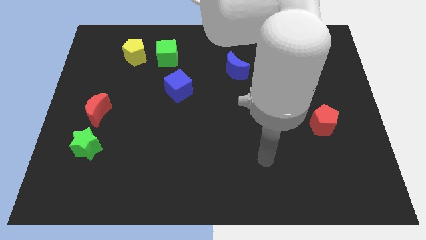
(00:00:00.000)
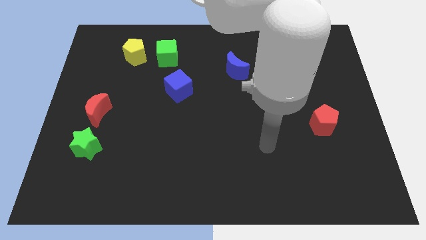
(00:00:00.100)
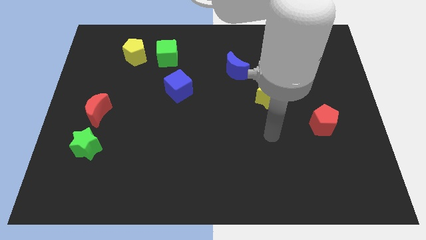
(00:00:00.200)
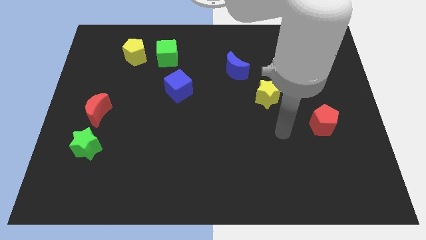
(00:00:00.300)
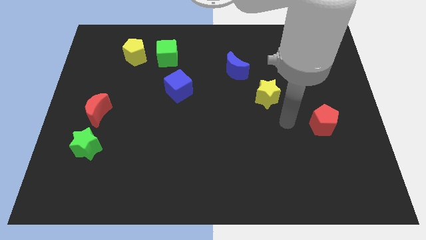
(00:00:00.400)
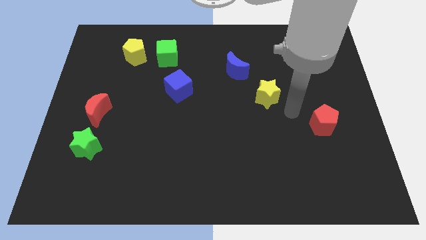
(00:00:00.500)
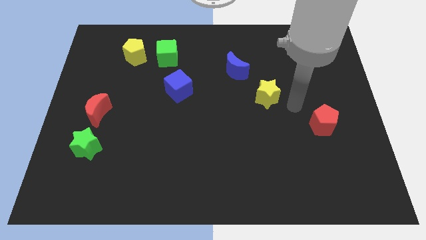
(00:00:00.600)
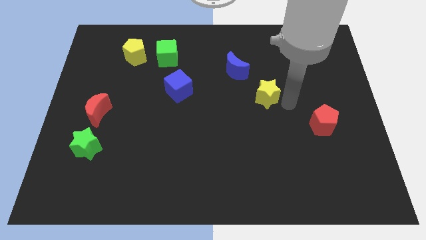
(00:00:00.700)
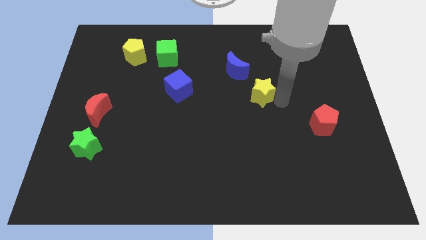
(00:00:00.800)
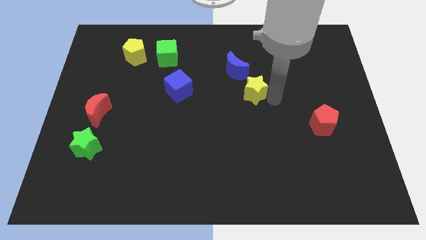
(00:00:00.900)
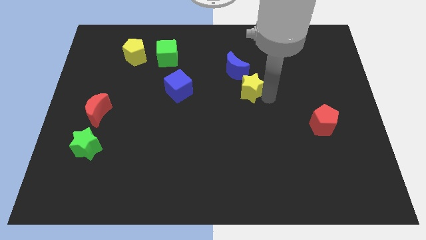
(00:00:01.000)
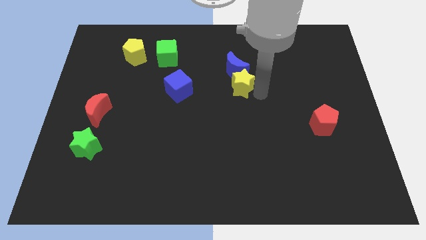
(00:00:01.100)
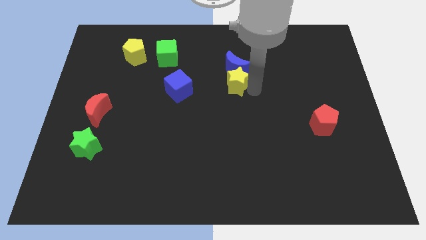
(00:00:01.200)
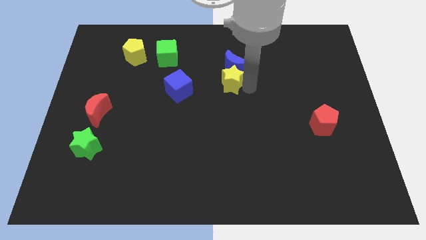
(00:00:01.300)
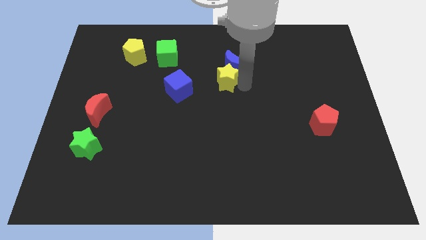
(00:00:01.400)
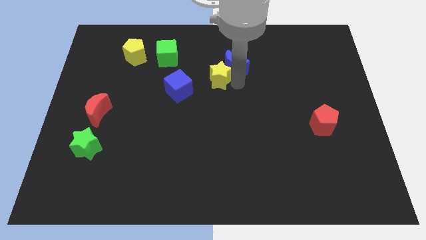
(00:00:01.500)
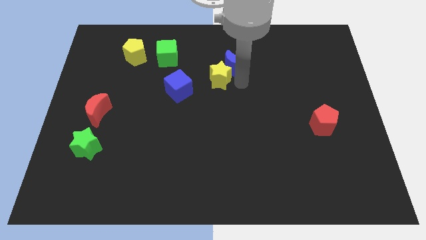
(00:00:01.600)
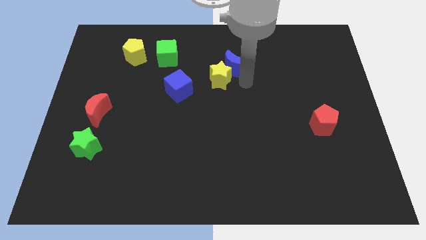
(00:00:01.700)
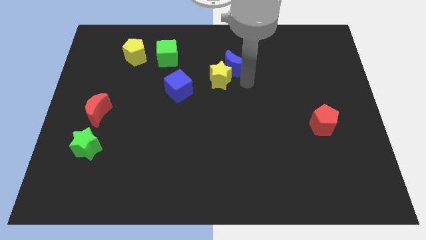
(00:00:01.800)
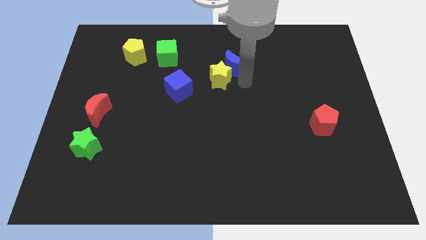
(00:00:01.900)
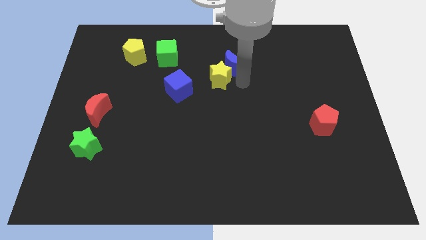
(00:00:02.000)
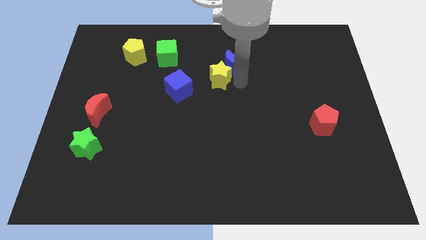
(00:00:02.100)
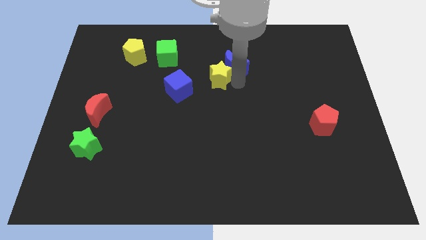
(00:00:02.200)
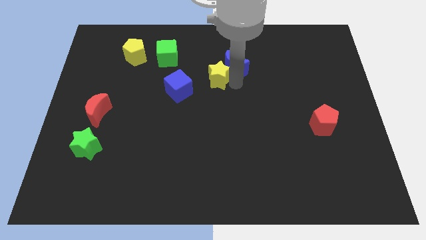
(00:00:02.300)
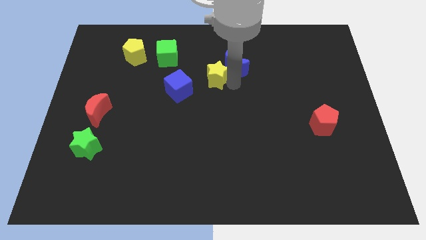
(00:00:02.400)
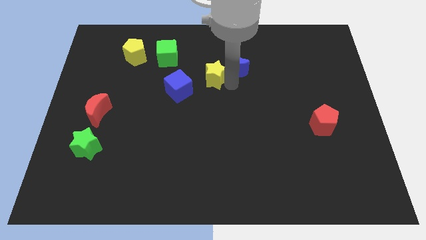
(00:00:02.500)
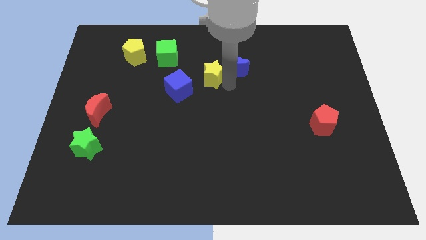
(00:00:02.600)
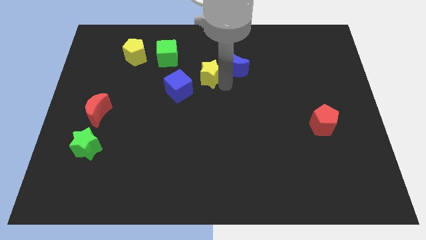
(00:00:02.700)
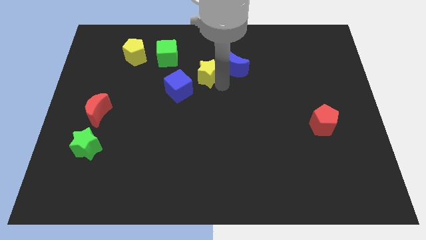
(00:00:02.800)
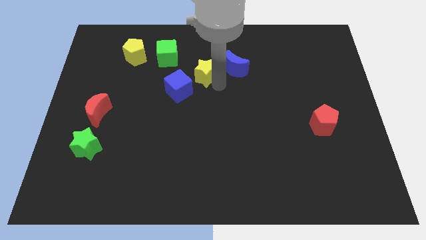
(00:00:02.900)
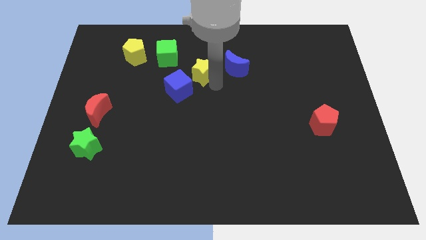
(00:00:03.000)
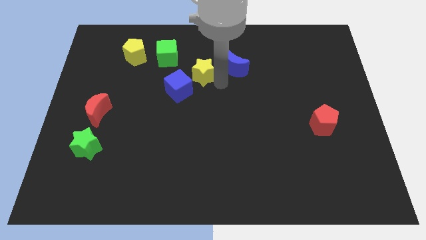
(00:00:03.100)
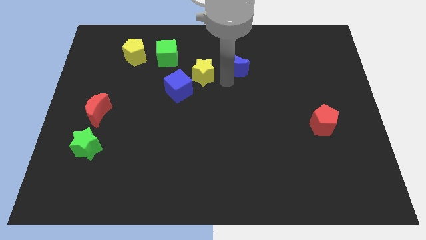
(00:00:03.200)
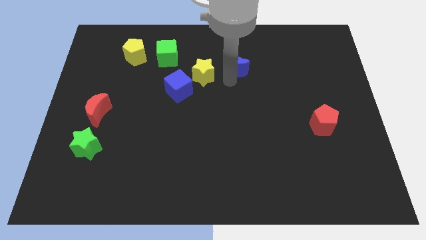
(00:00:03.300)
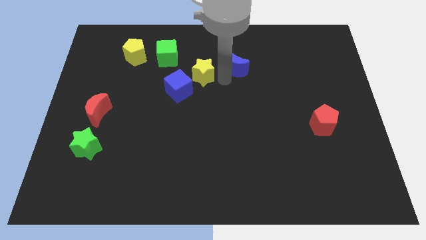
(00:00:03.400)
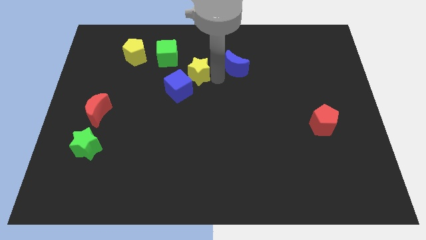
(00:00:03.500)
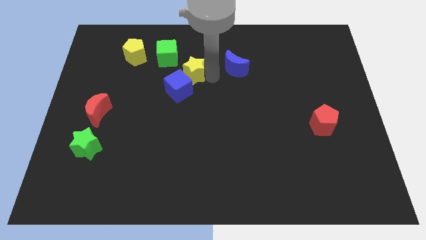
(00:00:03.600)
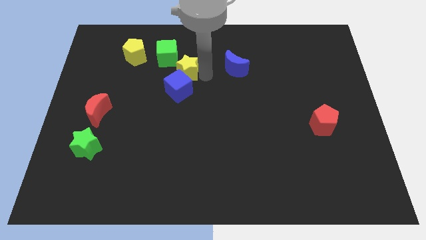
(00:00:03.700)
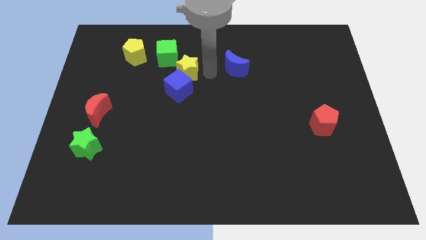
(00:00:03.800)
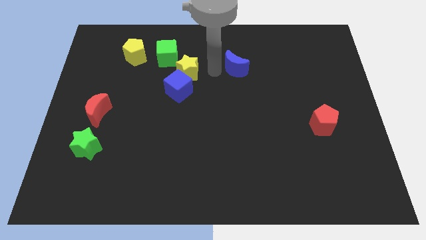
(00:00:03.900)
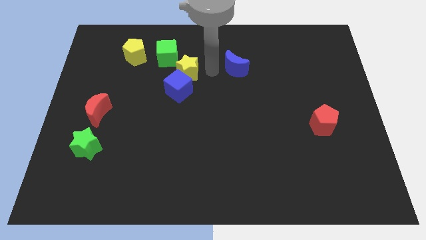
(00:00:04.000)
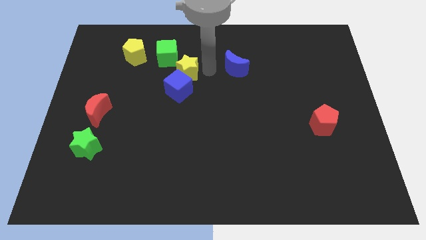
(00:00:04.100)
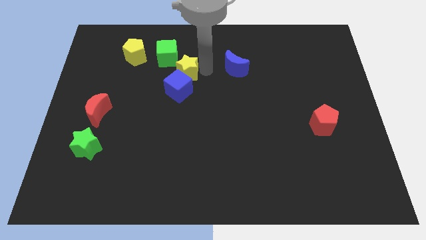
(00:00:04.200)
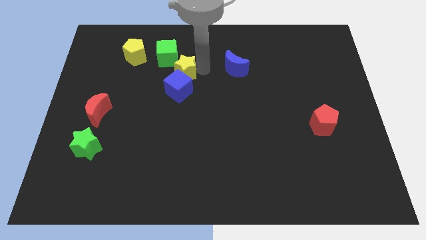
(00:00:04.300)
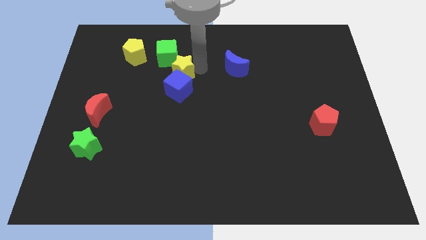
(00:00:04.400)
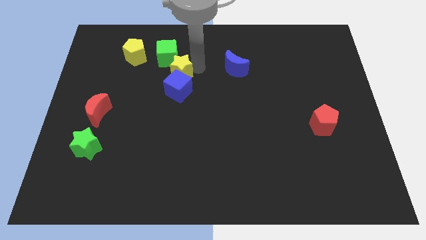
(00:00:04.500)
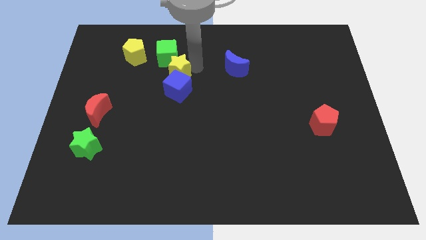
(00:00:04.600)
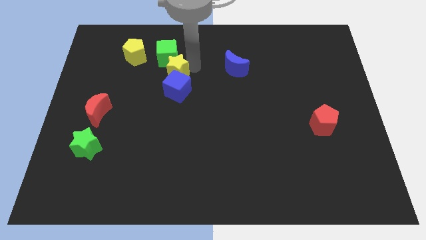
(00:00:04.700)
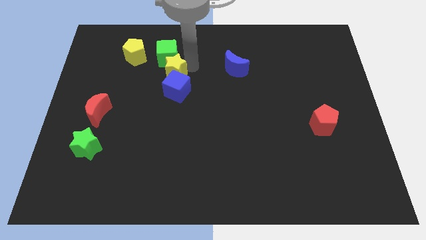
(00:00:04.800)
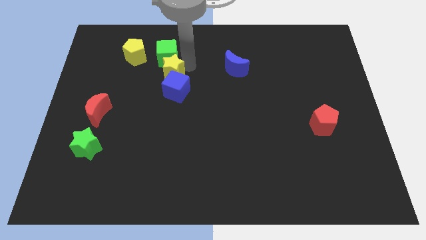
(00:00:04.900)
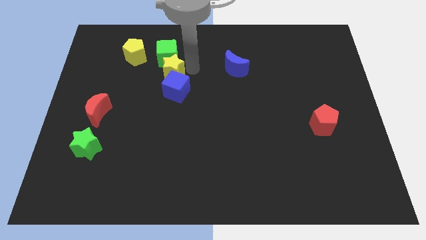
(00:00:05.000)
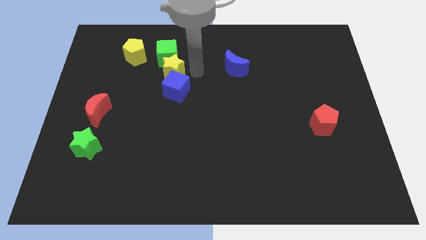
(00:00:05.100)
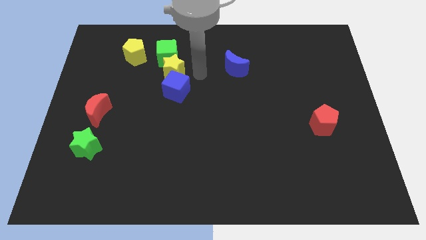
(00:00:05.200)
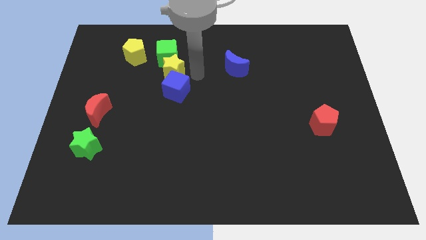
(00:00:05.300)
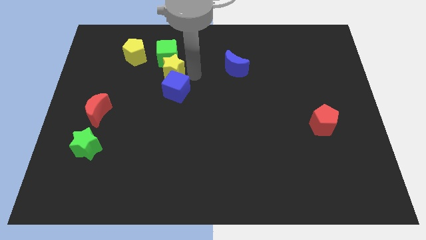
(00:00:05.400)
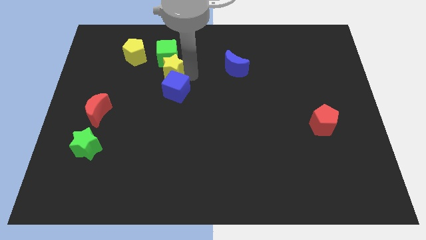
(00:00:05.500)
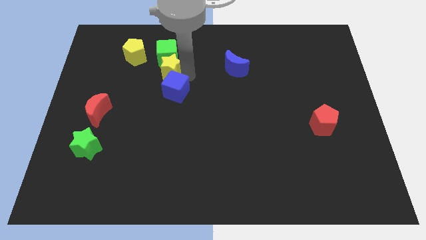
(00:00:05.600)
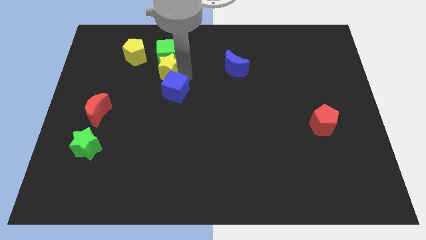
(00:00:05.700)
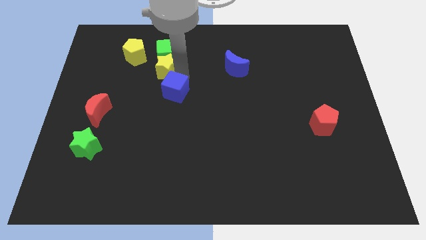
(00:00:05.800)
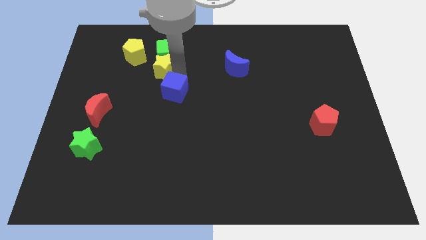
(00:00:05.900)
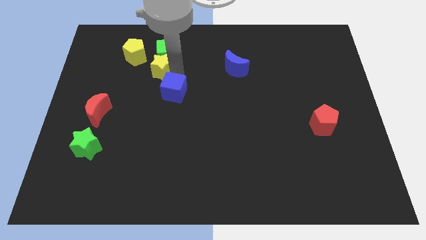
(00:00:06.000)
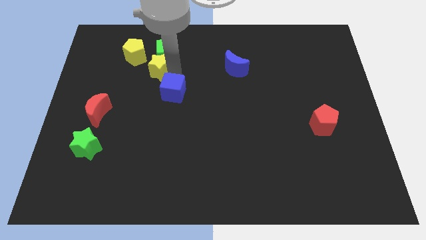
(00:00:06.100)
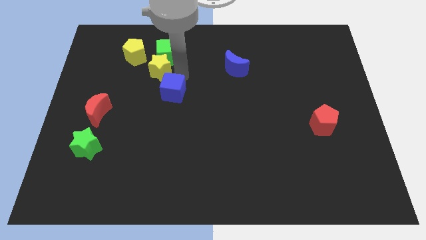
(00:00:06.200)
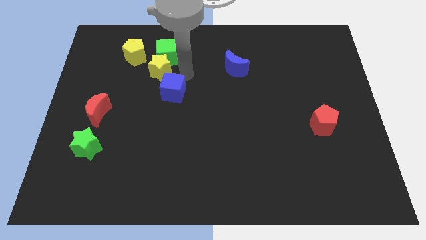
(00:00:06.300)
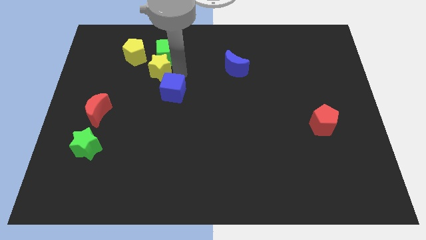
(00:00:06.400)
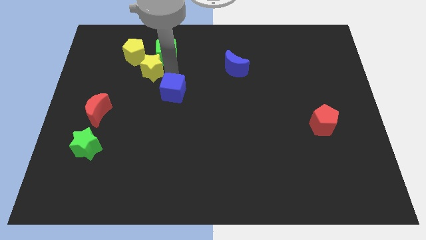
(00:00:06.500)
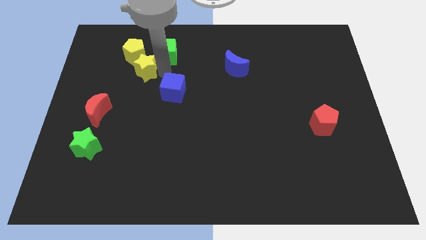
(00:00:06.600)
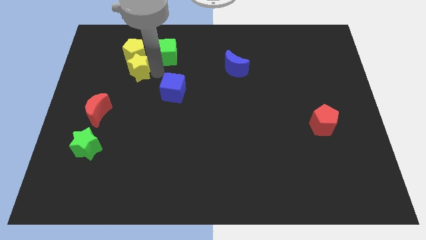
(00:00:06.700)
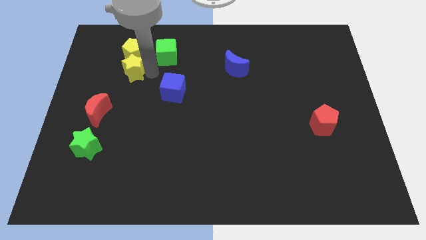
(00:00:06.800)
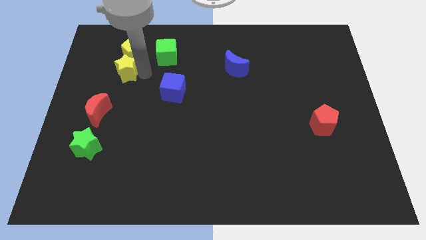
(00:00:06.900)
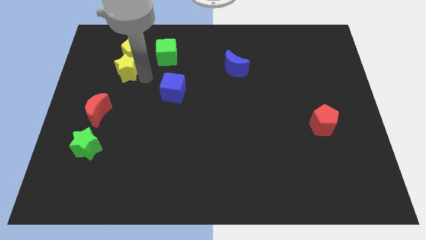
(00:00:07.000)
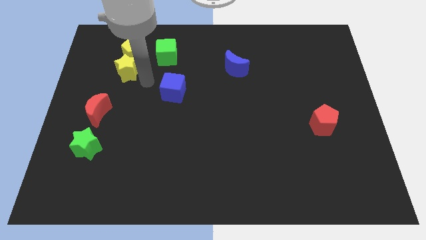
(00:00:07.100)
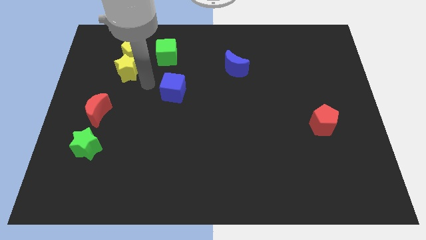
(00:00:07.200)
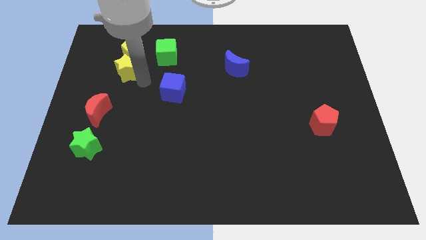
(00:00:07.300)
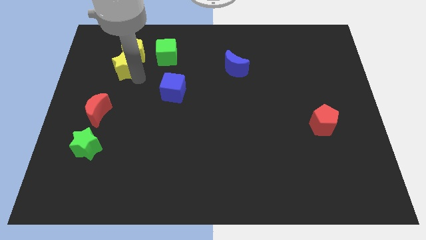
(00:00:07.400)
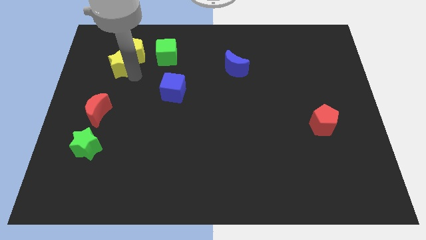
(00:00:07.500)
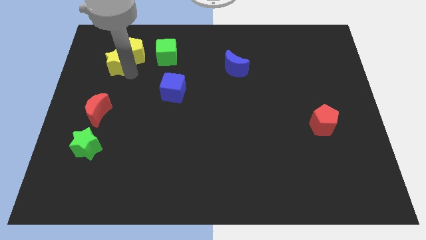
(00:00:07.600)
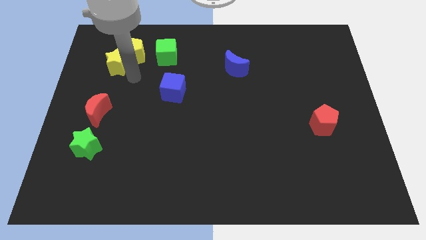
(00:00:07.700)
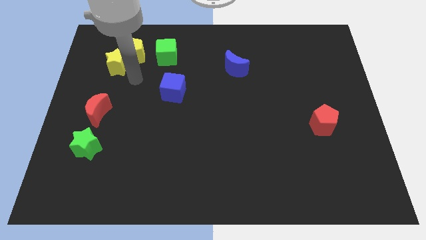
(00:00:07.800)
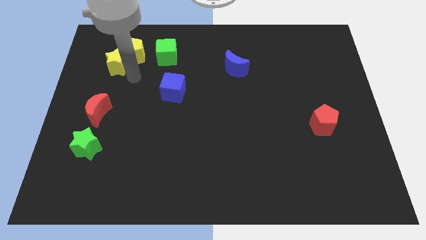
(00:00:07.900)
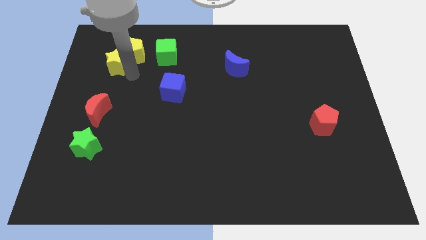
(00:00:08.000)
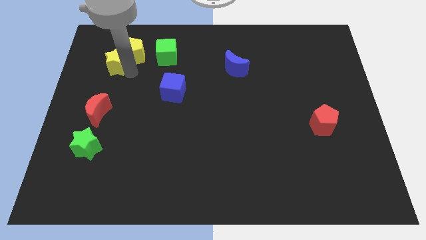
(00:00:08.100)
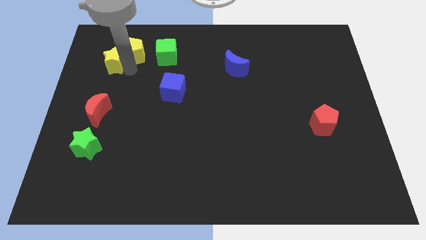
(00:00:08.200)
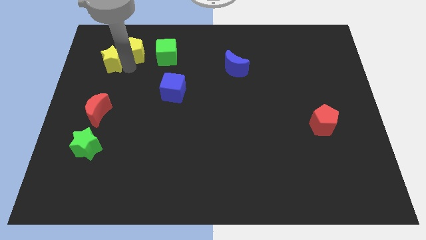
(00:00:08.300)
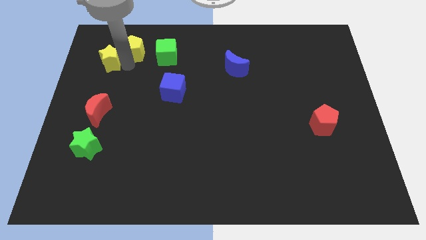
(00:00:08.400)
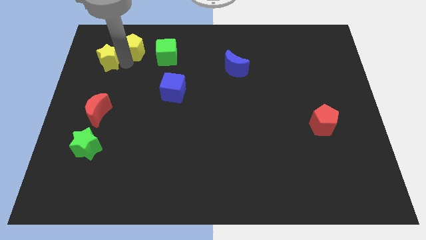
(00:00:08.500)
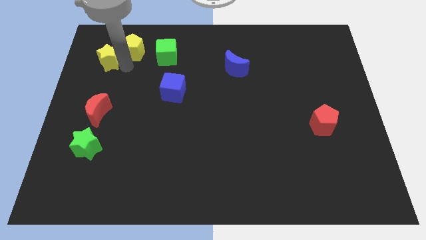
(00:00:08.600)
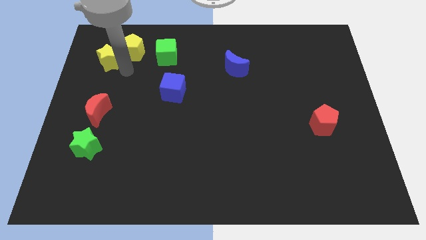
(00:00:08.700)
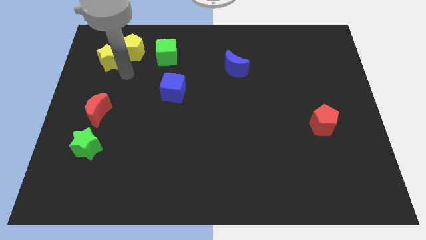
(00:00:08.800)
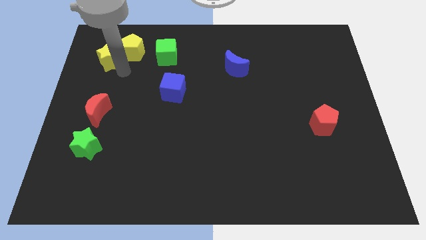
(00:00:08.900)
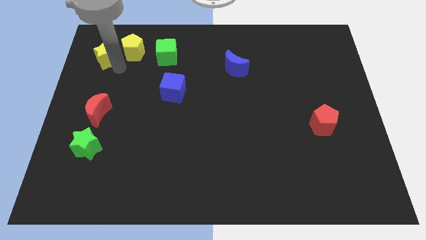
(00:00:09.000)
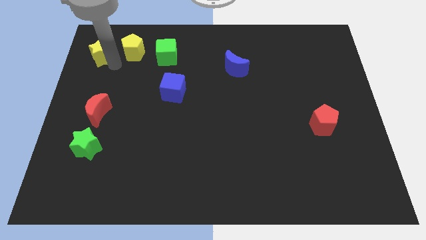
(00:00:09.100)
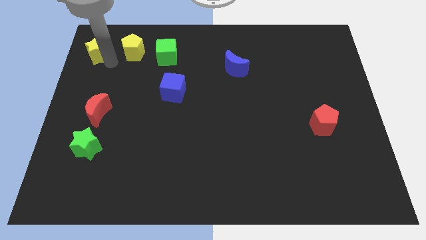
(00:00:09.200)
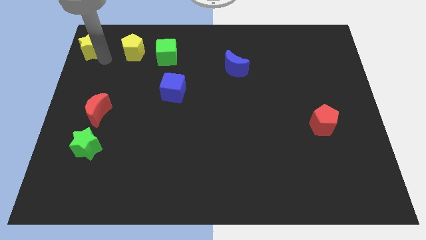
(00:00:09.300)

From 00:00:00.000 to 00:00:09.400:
move the yellow star to the top left of the board
